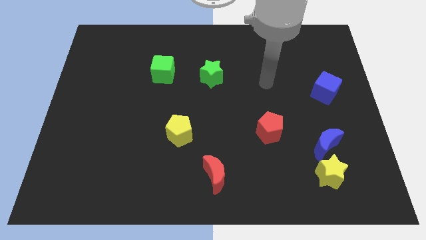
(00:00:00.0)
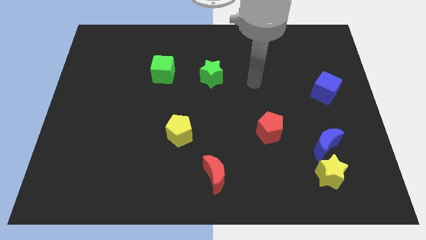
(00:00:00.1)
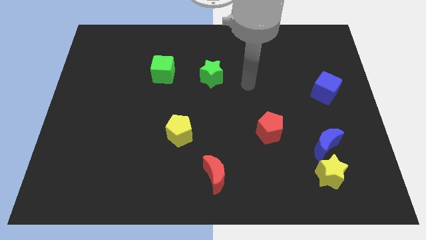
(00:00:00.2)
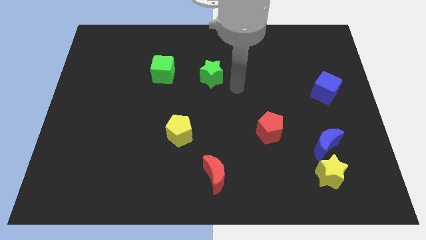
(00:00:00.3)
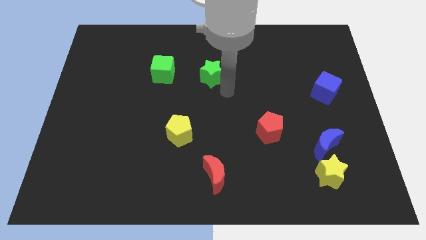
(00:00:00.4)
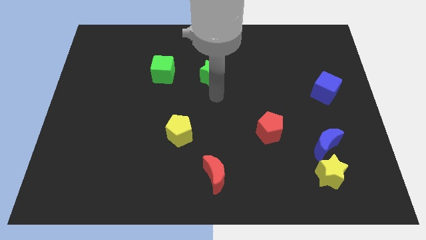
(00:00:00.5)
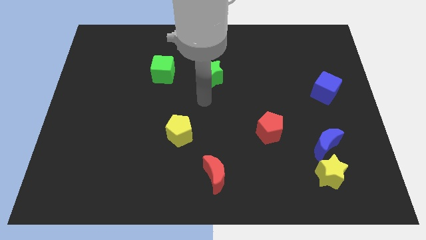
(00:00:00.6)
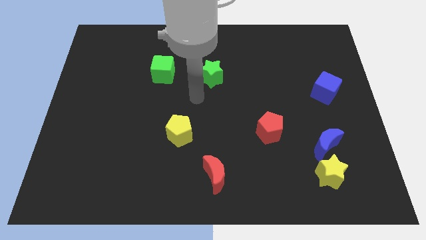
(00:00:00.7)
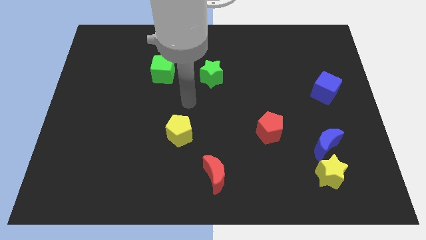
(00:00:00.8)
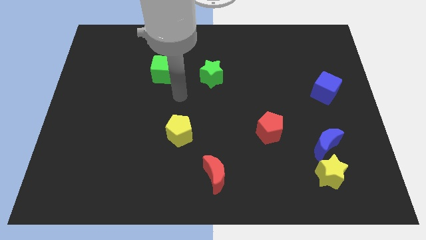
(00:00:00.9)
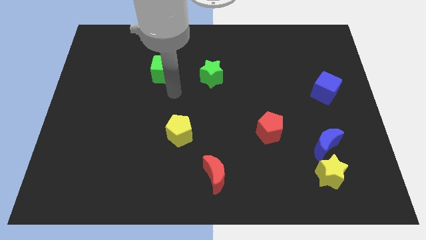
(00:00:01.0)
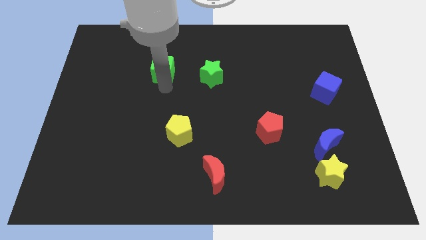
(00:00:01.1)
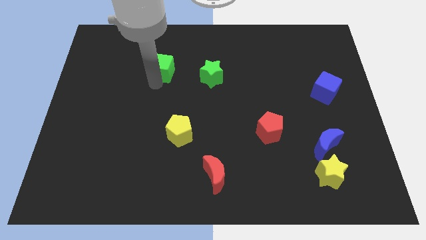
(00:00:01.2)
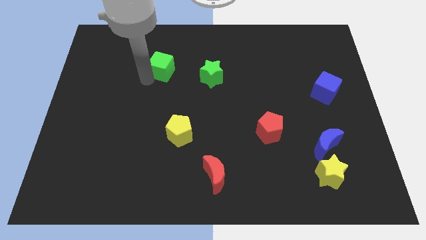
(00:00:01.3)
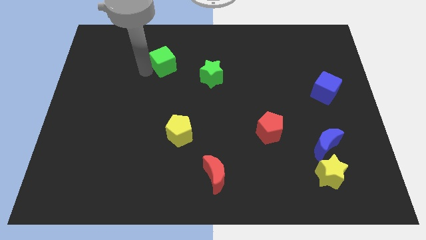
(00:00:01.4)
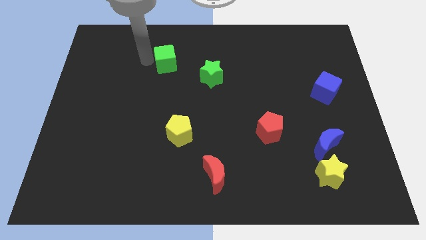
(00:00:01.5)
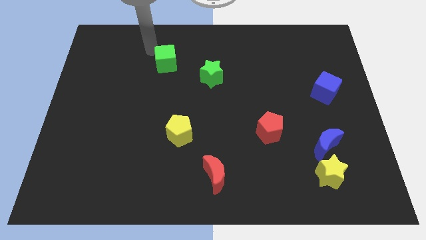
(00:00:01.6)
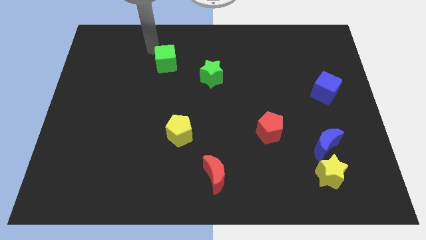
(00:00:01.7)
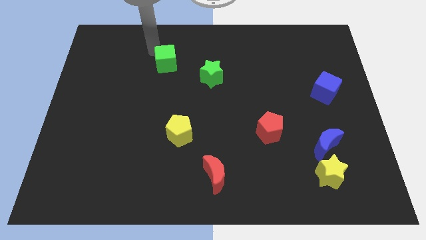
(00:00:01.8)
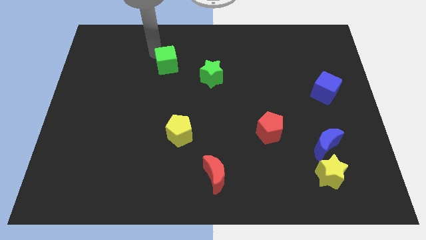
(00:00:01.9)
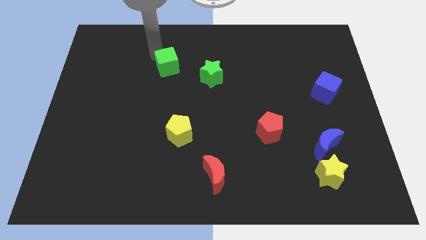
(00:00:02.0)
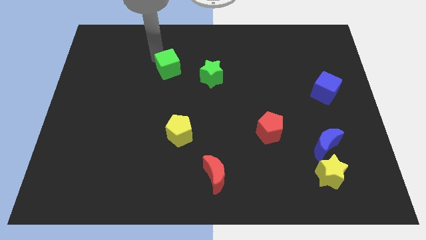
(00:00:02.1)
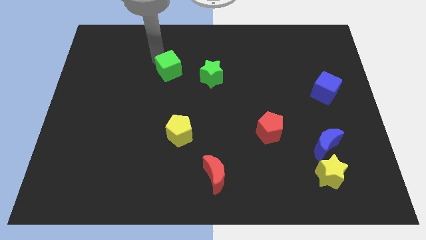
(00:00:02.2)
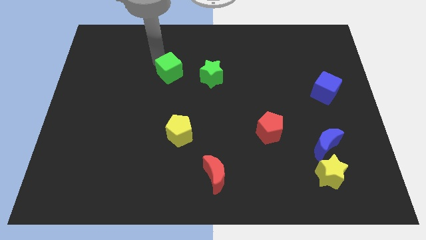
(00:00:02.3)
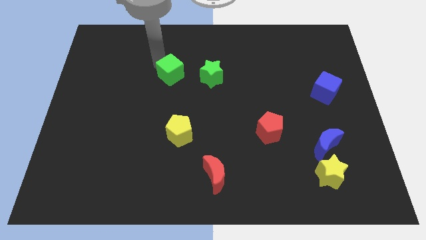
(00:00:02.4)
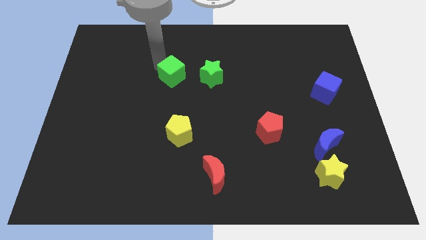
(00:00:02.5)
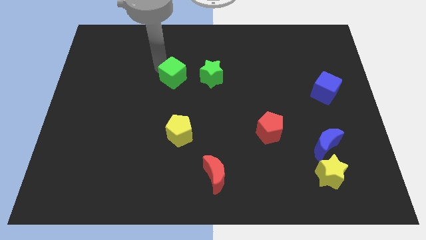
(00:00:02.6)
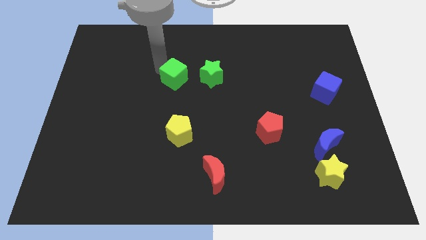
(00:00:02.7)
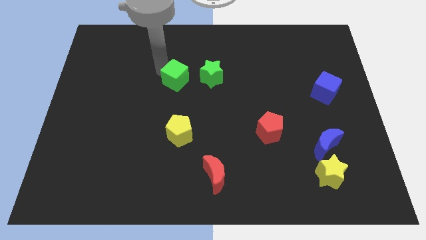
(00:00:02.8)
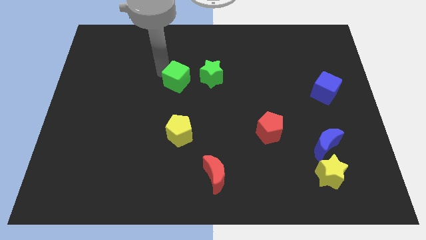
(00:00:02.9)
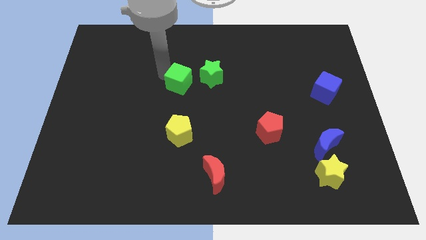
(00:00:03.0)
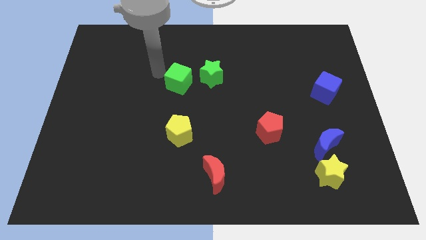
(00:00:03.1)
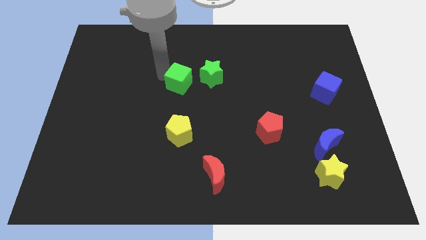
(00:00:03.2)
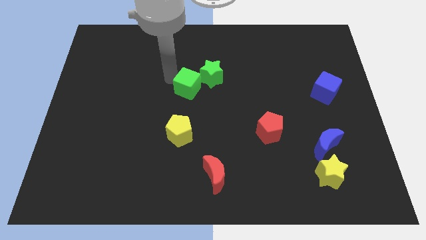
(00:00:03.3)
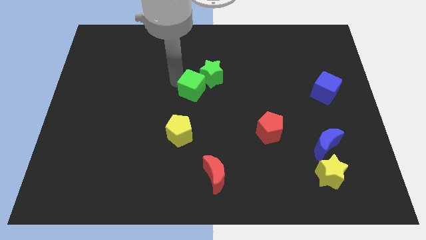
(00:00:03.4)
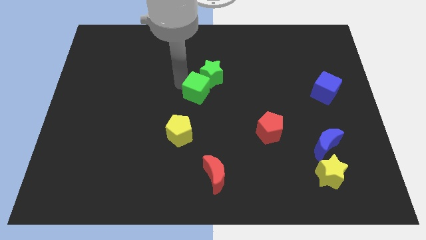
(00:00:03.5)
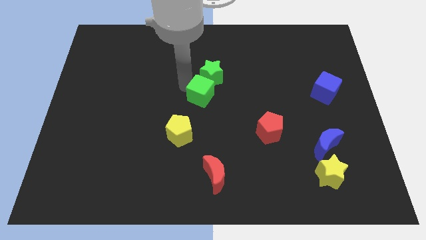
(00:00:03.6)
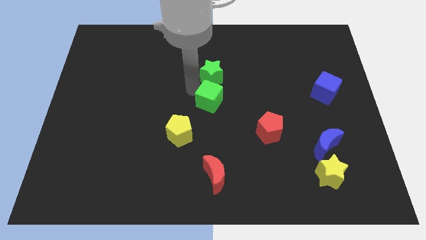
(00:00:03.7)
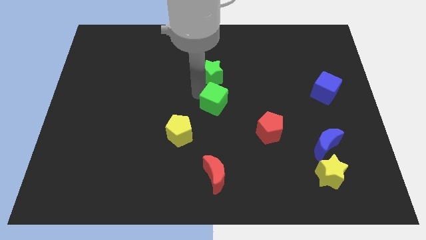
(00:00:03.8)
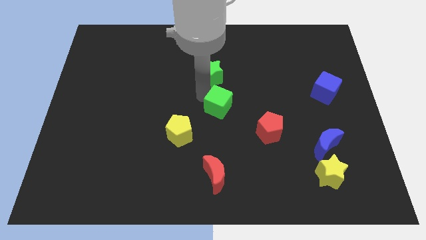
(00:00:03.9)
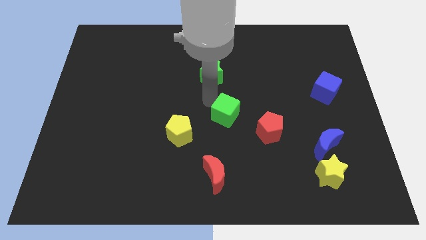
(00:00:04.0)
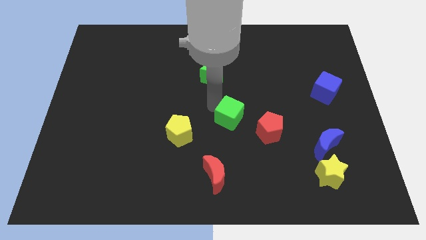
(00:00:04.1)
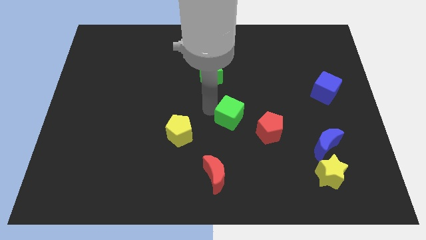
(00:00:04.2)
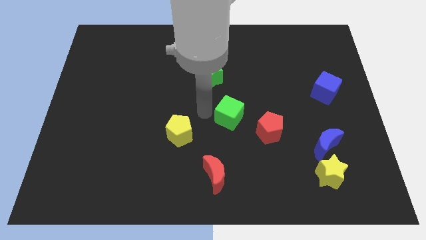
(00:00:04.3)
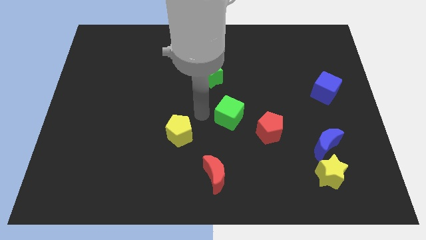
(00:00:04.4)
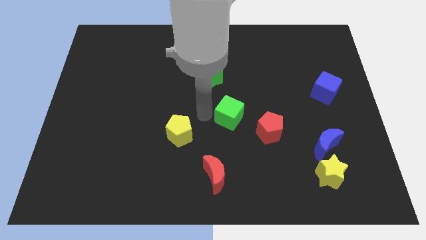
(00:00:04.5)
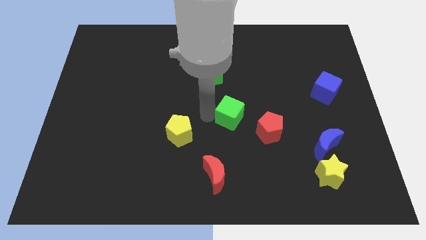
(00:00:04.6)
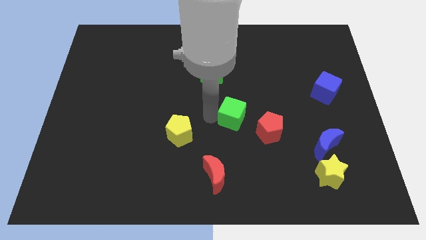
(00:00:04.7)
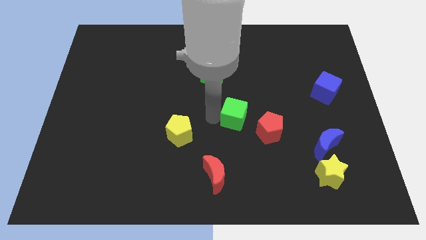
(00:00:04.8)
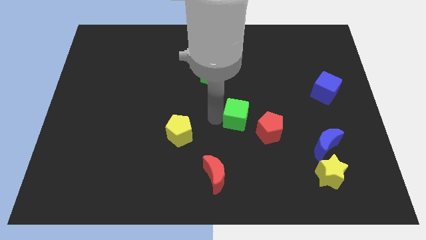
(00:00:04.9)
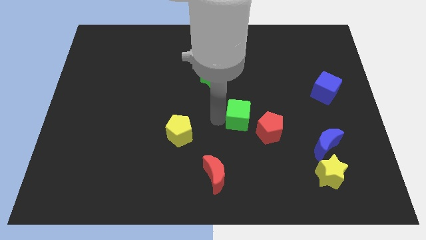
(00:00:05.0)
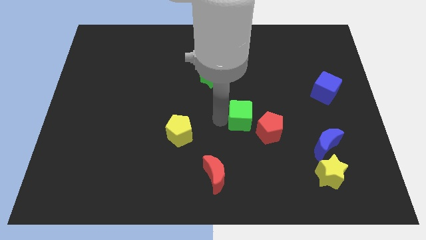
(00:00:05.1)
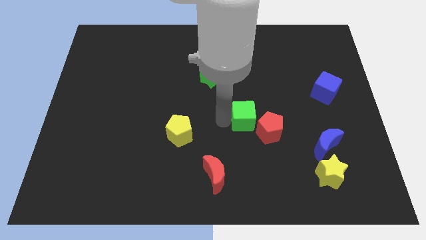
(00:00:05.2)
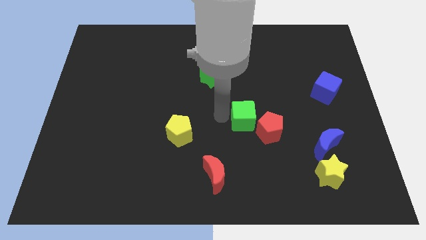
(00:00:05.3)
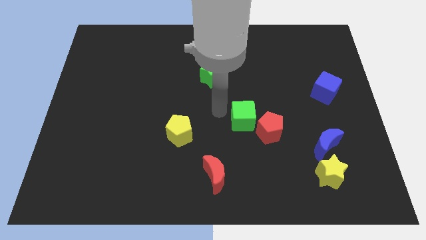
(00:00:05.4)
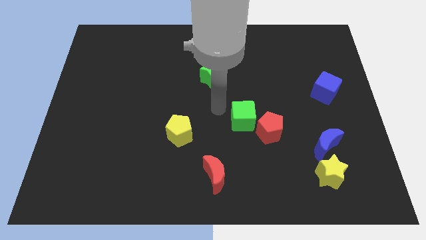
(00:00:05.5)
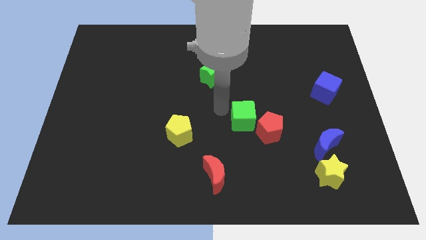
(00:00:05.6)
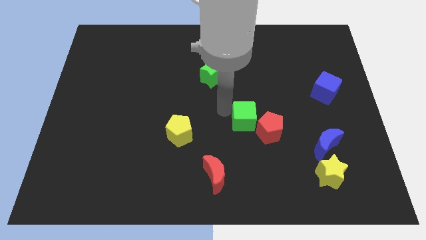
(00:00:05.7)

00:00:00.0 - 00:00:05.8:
push the green cube towards the red pentagon
